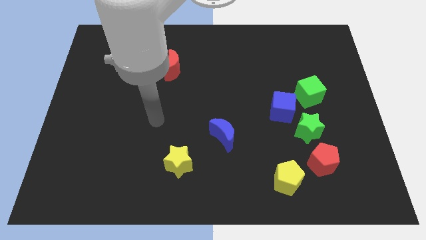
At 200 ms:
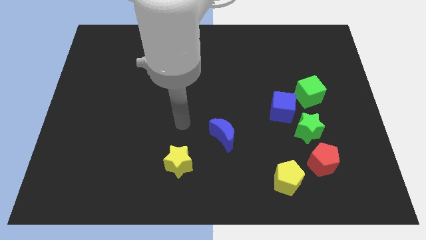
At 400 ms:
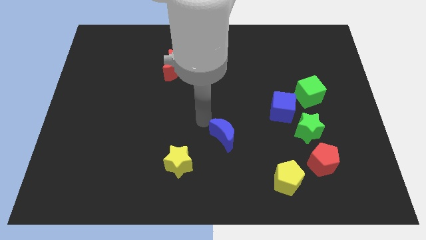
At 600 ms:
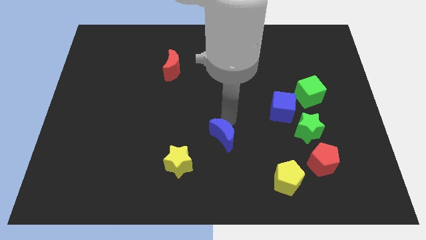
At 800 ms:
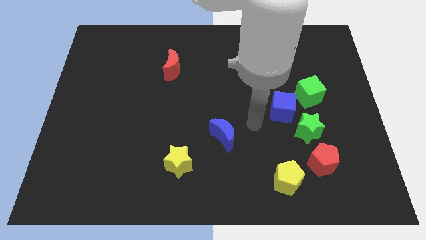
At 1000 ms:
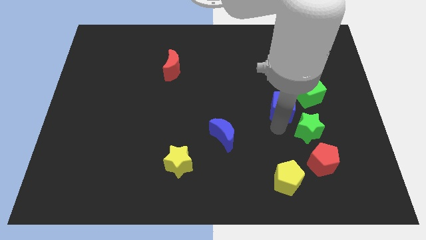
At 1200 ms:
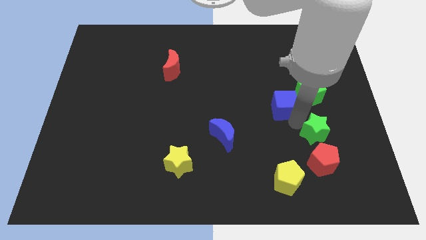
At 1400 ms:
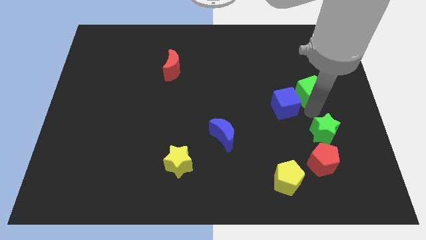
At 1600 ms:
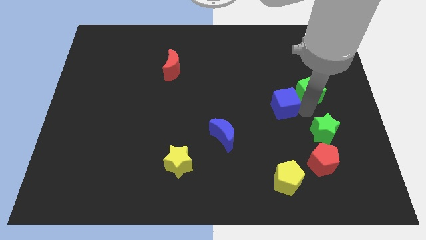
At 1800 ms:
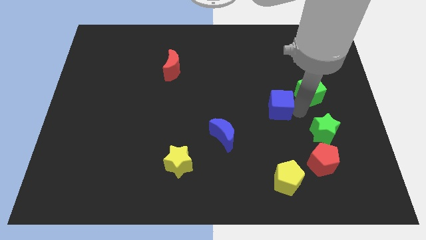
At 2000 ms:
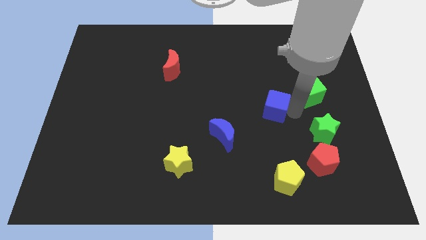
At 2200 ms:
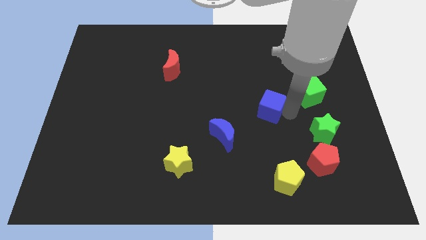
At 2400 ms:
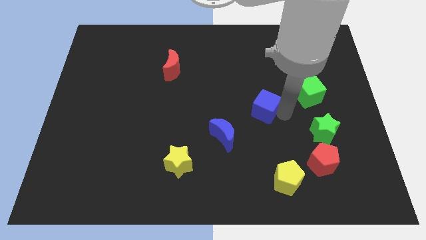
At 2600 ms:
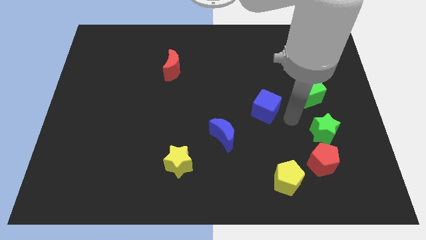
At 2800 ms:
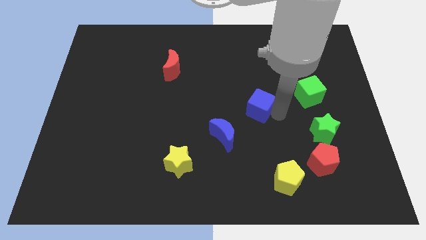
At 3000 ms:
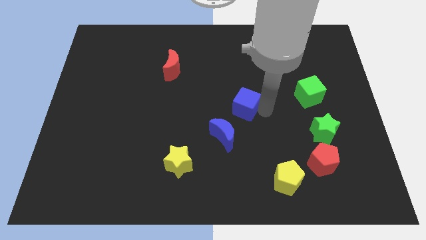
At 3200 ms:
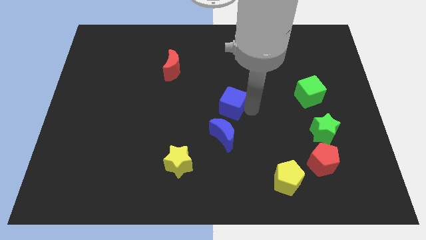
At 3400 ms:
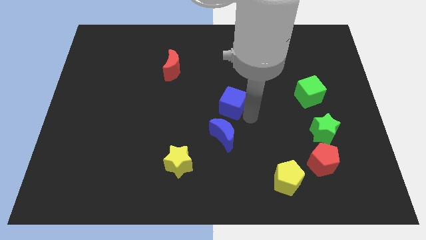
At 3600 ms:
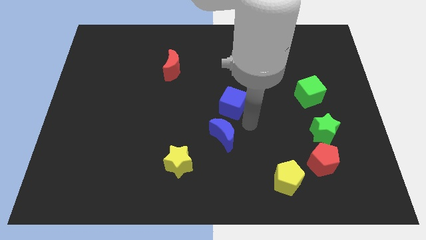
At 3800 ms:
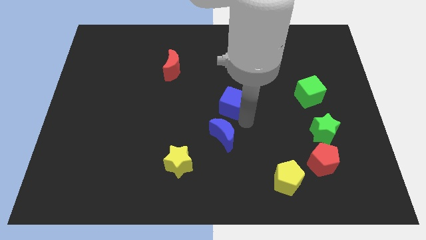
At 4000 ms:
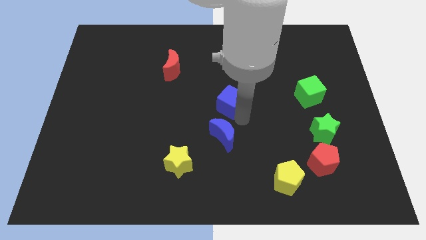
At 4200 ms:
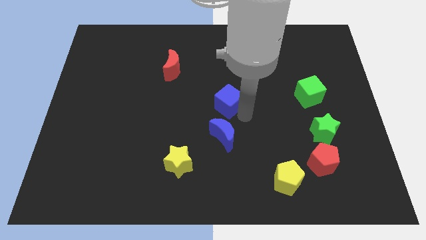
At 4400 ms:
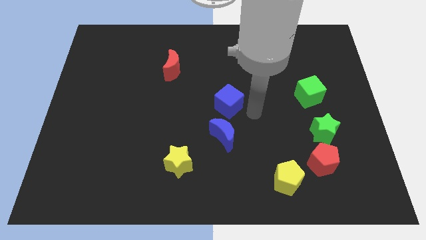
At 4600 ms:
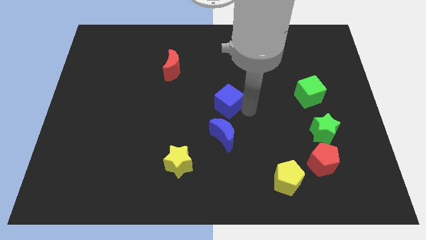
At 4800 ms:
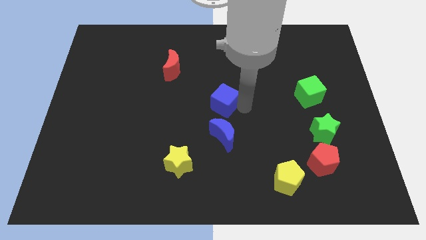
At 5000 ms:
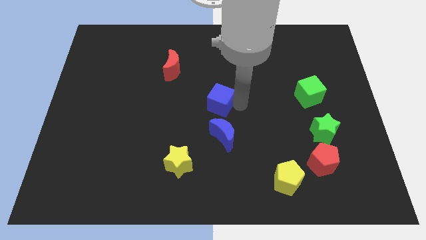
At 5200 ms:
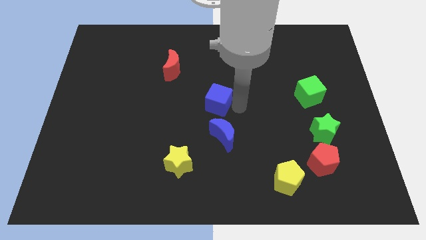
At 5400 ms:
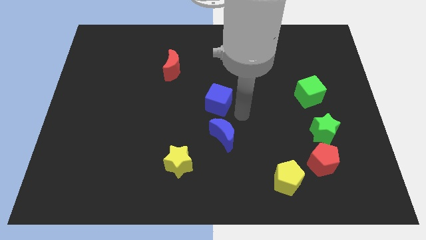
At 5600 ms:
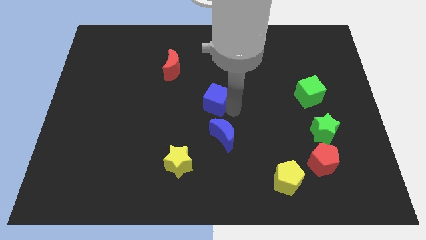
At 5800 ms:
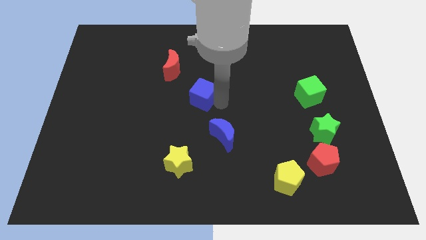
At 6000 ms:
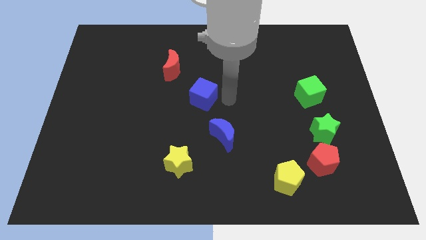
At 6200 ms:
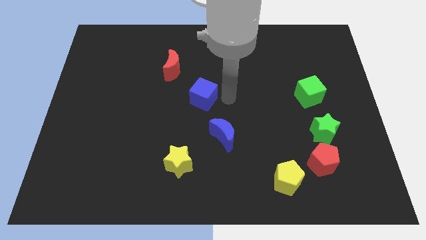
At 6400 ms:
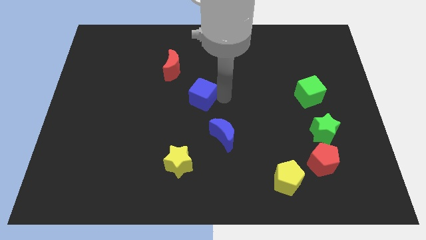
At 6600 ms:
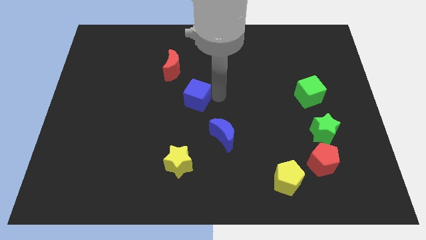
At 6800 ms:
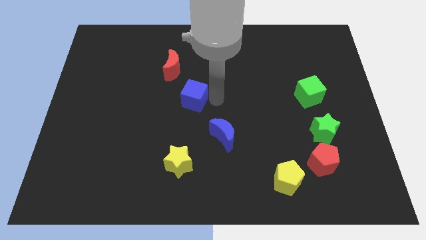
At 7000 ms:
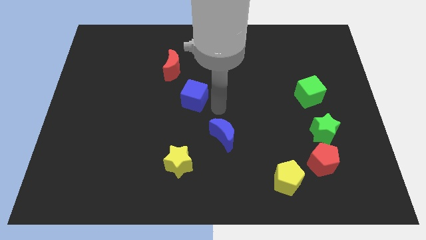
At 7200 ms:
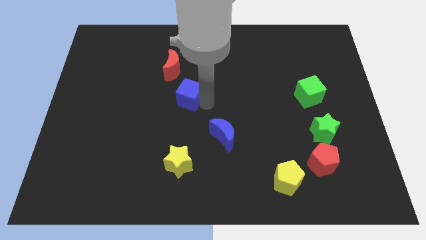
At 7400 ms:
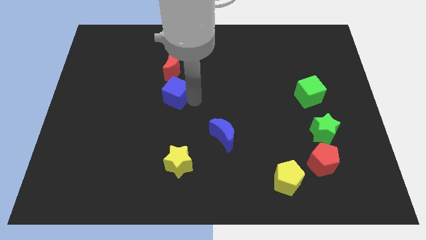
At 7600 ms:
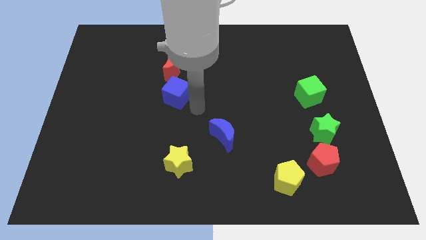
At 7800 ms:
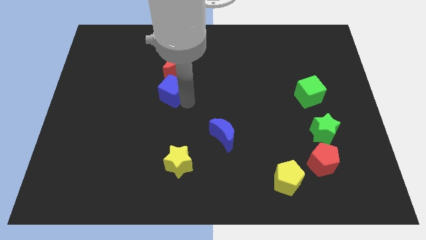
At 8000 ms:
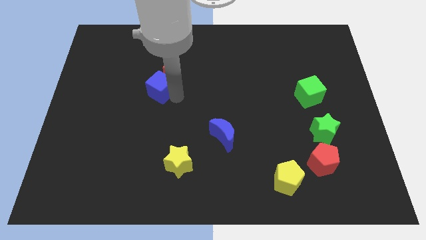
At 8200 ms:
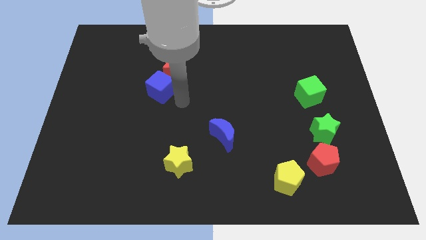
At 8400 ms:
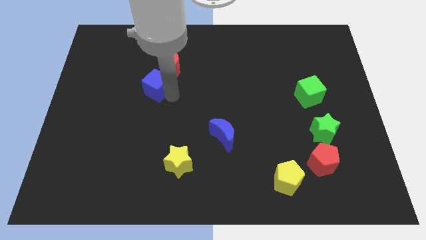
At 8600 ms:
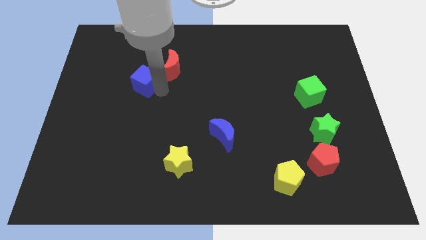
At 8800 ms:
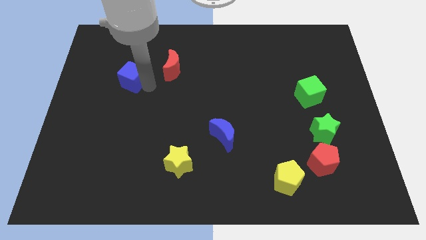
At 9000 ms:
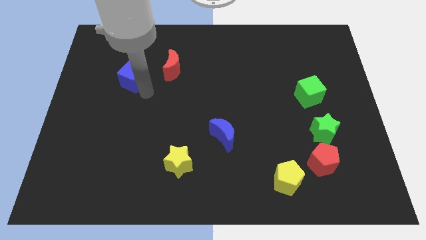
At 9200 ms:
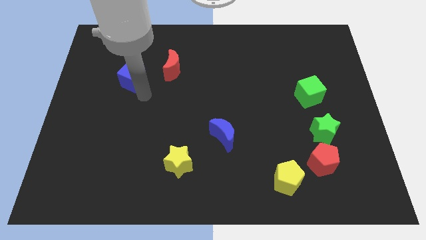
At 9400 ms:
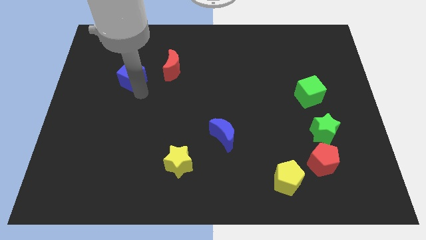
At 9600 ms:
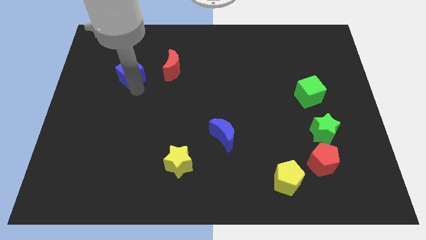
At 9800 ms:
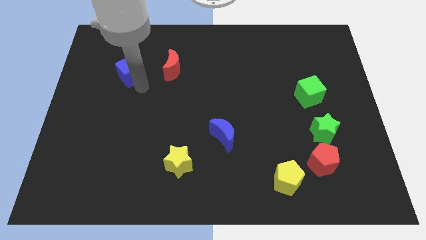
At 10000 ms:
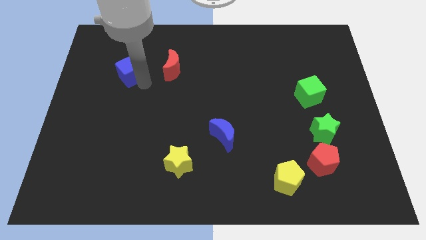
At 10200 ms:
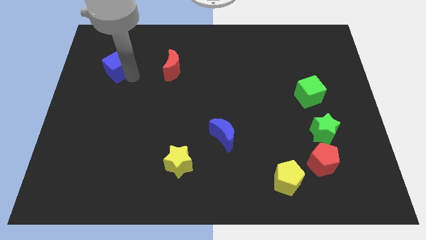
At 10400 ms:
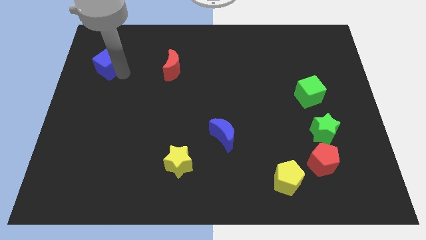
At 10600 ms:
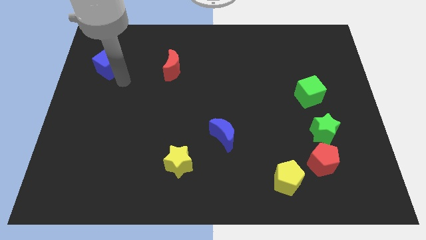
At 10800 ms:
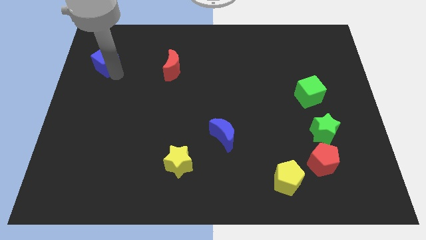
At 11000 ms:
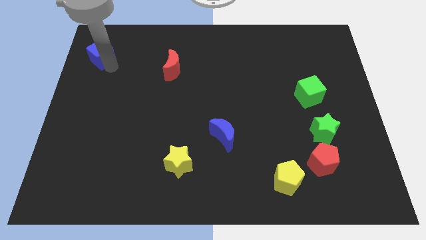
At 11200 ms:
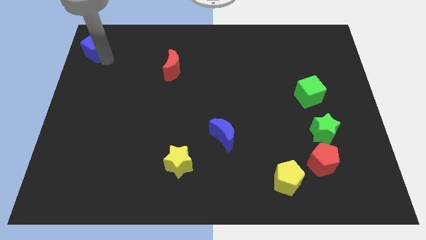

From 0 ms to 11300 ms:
push the blue cube to the top left
